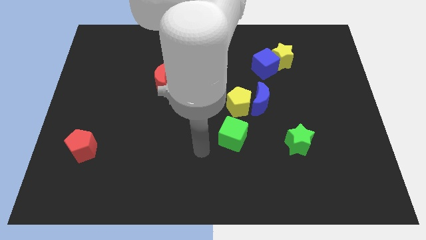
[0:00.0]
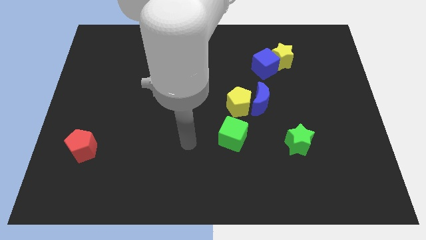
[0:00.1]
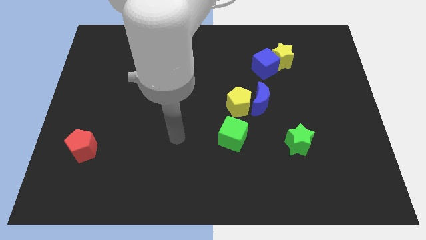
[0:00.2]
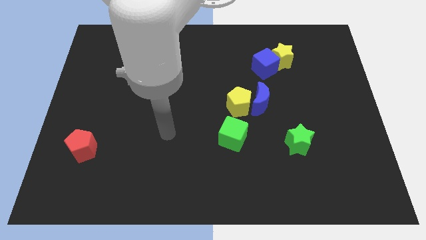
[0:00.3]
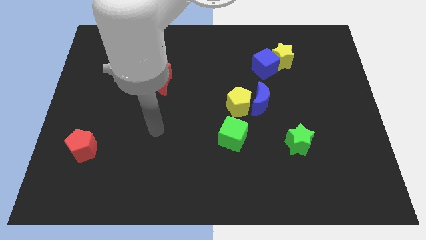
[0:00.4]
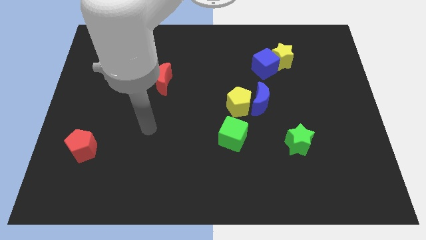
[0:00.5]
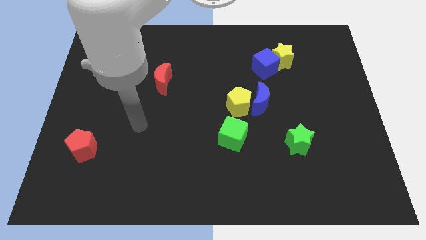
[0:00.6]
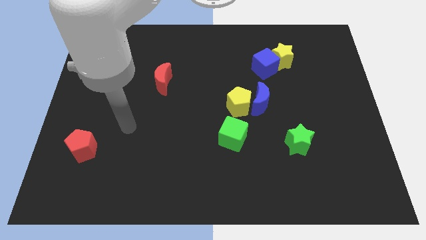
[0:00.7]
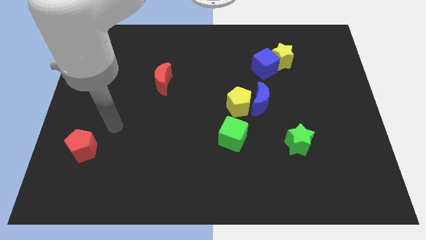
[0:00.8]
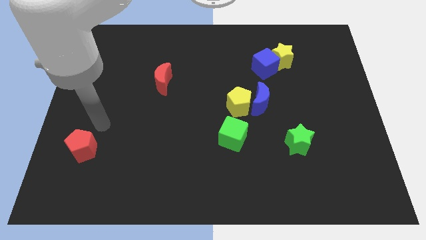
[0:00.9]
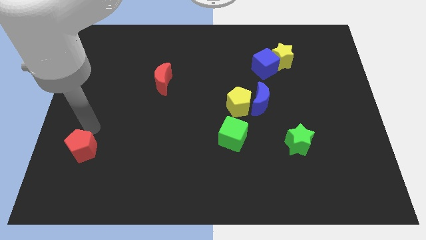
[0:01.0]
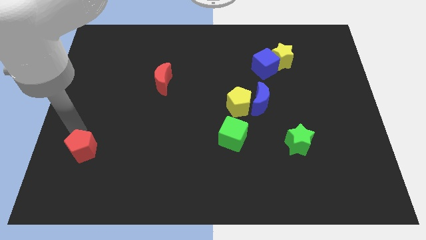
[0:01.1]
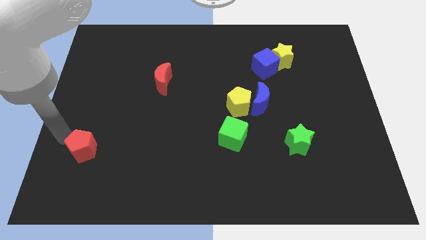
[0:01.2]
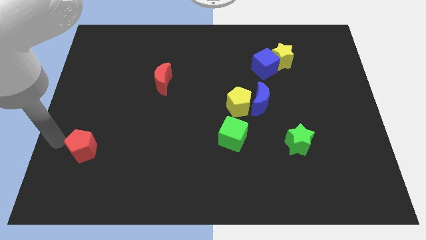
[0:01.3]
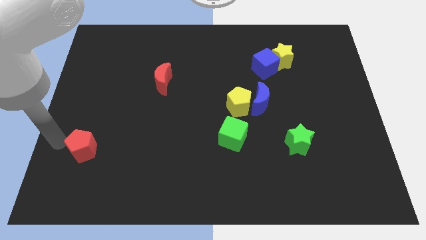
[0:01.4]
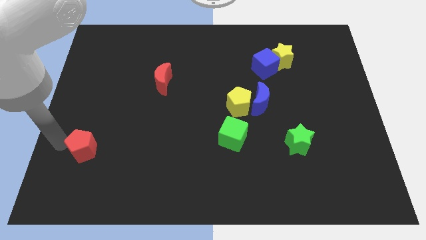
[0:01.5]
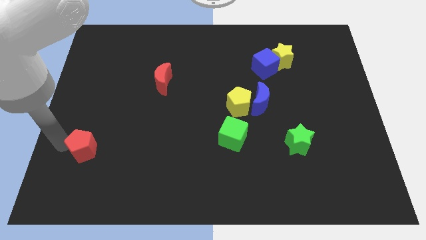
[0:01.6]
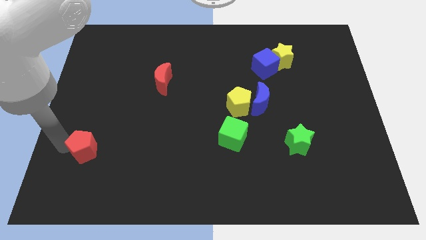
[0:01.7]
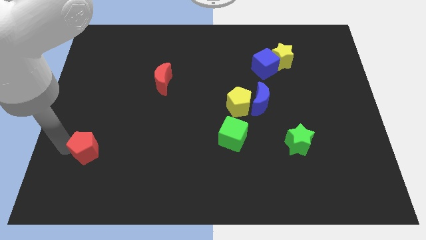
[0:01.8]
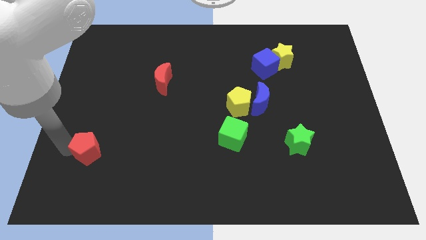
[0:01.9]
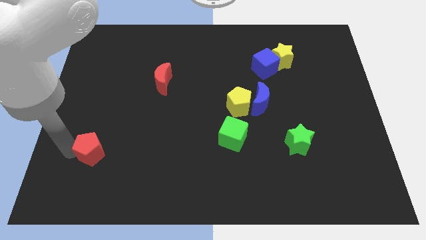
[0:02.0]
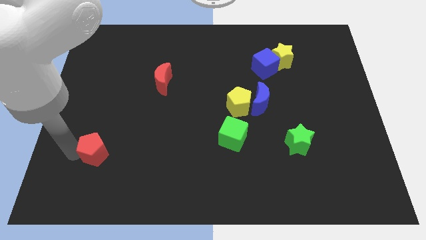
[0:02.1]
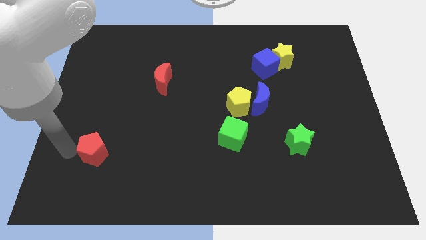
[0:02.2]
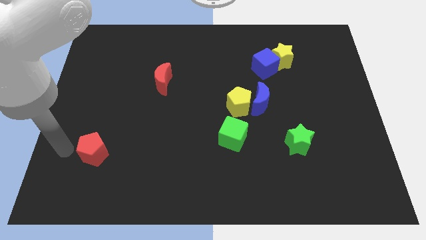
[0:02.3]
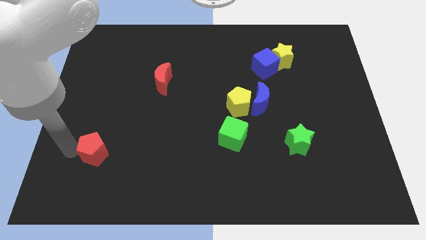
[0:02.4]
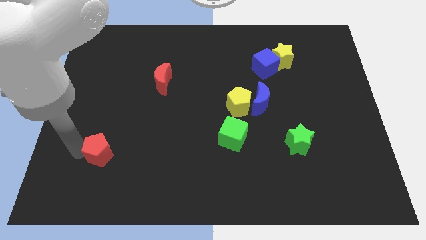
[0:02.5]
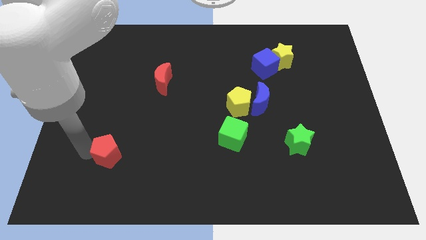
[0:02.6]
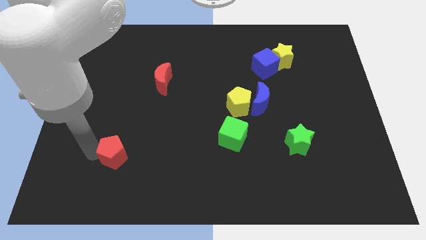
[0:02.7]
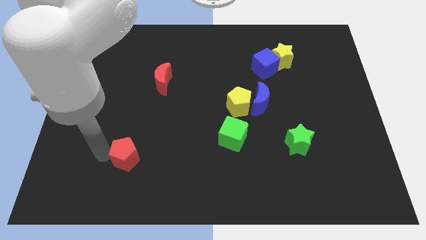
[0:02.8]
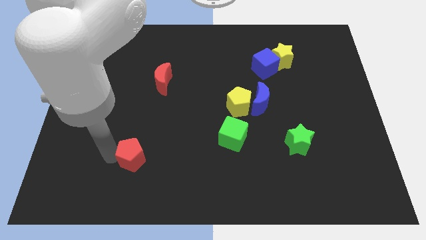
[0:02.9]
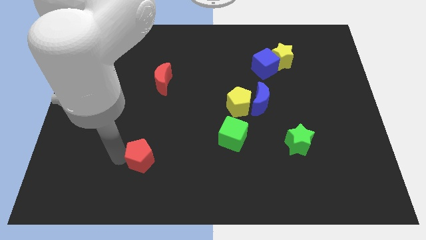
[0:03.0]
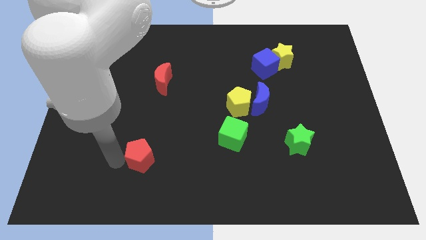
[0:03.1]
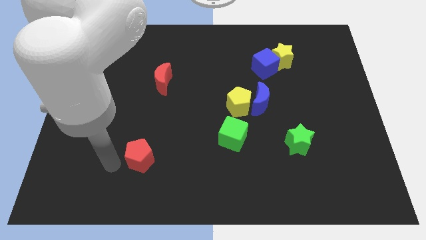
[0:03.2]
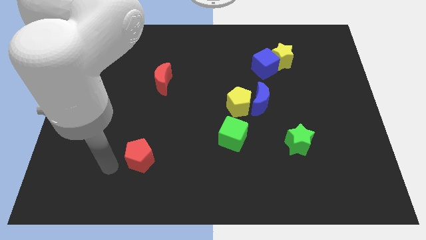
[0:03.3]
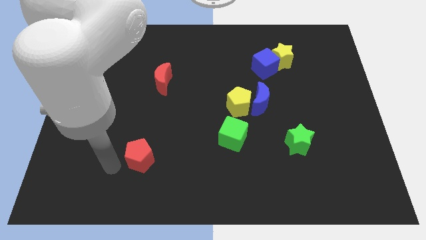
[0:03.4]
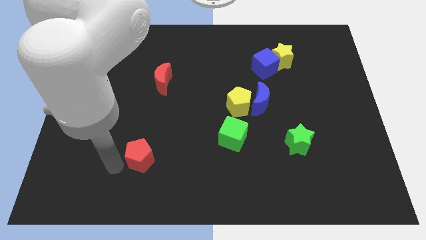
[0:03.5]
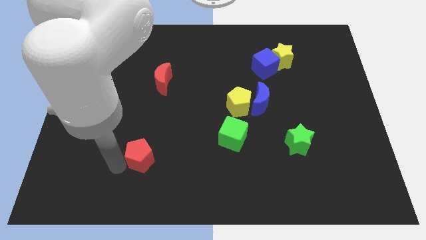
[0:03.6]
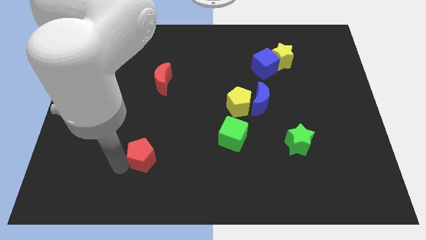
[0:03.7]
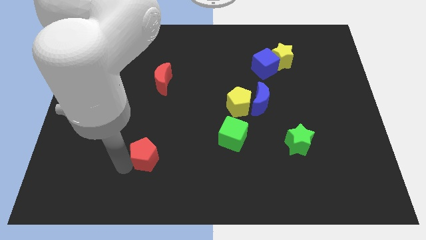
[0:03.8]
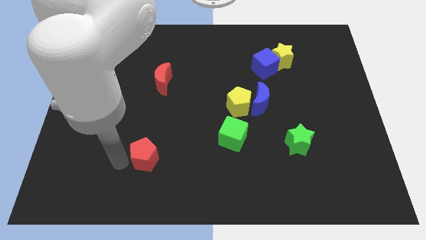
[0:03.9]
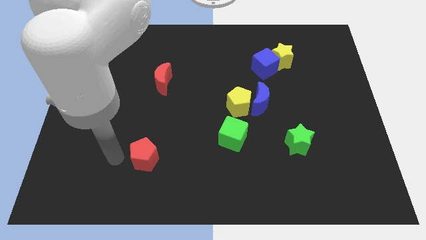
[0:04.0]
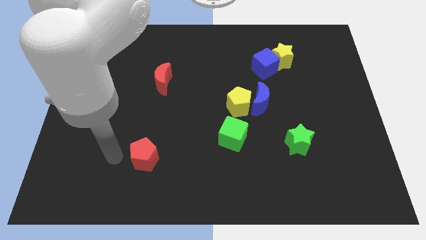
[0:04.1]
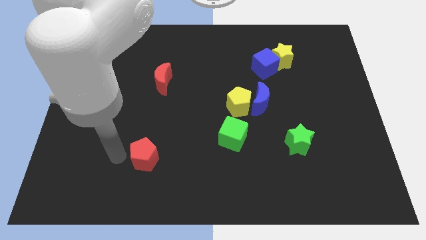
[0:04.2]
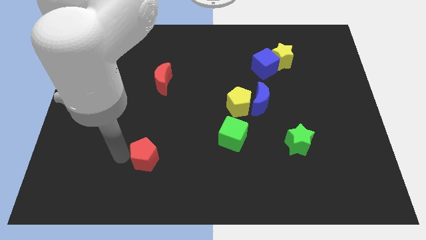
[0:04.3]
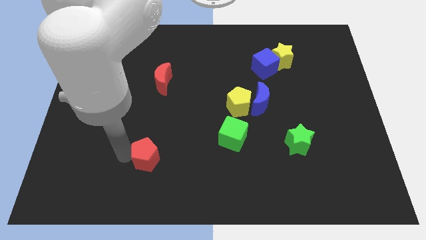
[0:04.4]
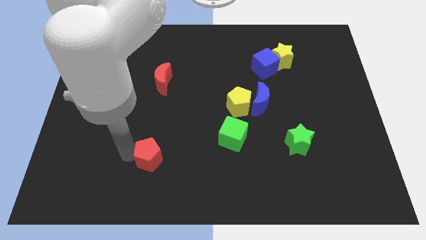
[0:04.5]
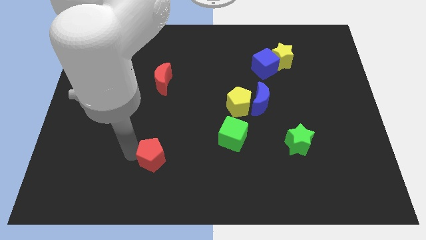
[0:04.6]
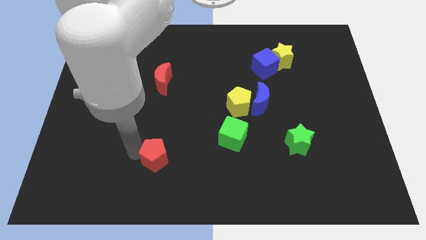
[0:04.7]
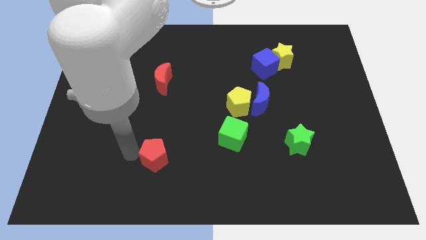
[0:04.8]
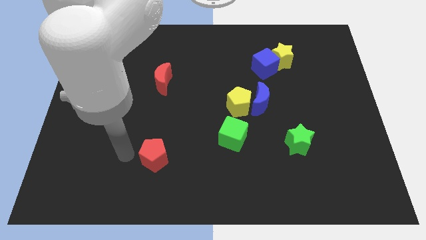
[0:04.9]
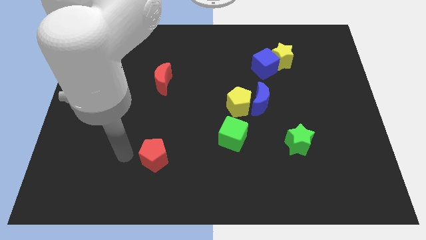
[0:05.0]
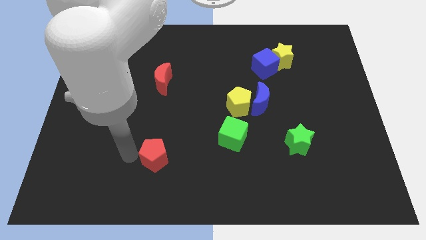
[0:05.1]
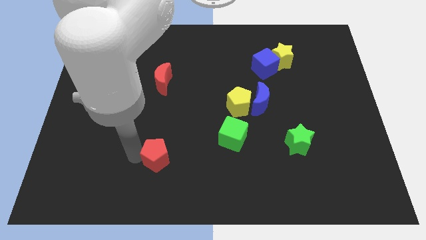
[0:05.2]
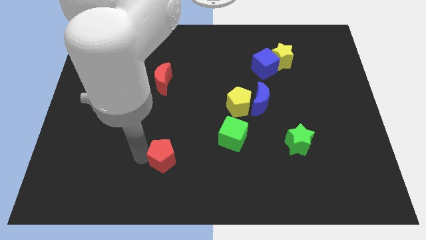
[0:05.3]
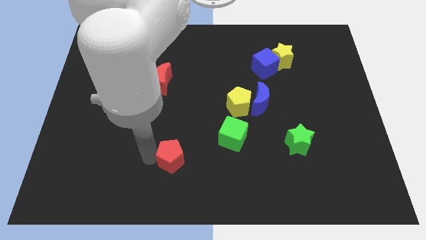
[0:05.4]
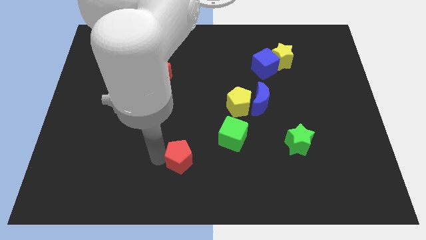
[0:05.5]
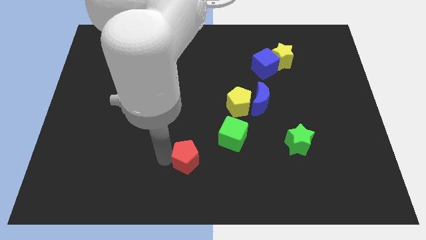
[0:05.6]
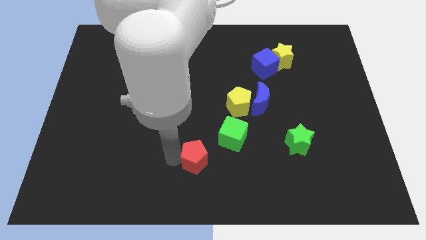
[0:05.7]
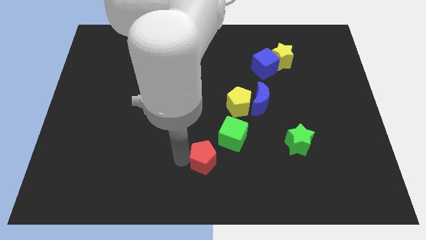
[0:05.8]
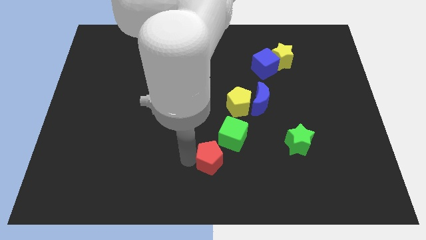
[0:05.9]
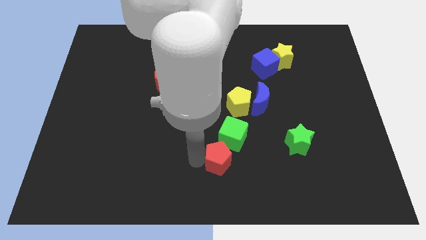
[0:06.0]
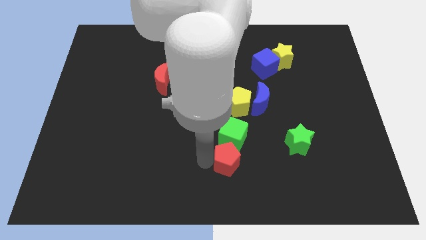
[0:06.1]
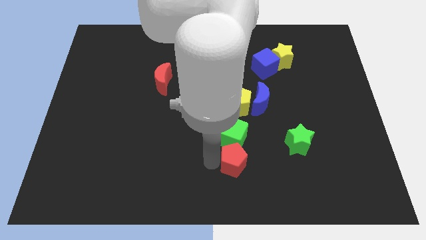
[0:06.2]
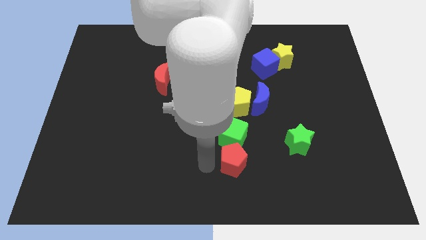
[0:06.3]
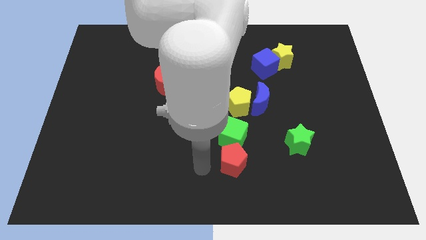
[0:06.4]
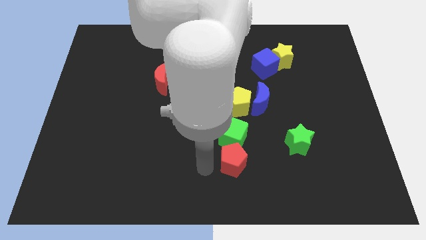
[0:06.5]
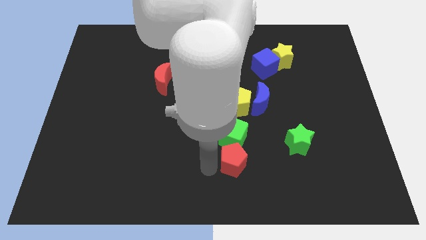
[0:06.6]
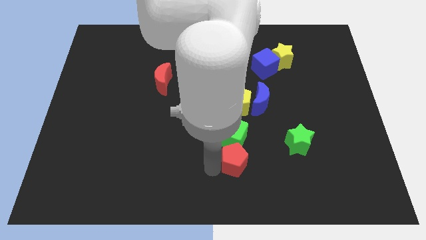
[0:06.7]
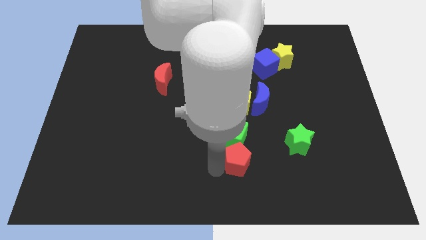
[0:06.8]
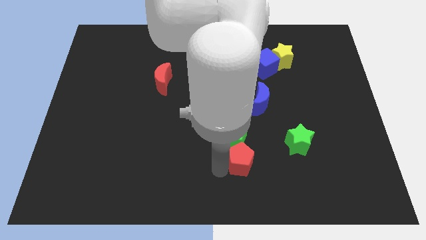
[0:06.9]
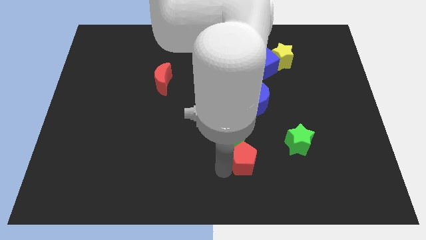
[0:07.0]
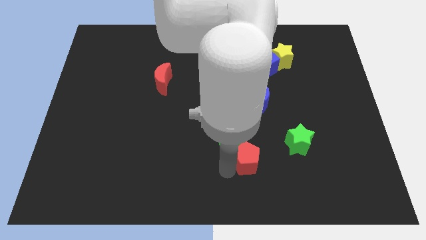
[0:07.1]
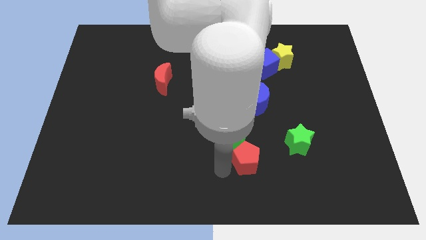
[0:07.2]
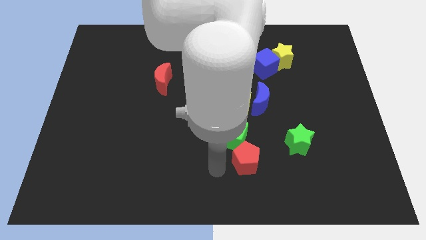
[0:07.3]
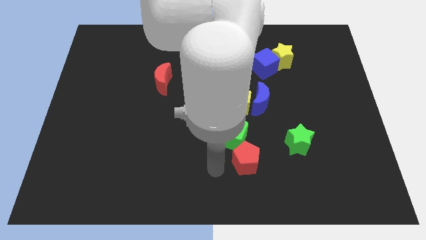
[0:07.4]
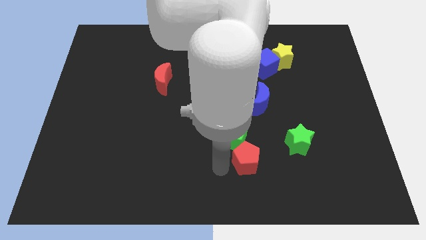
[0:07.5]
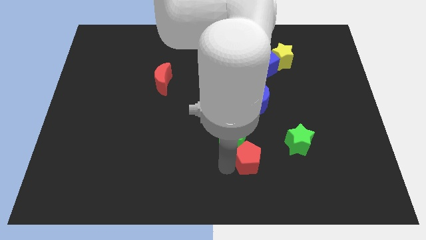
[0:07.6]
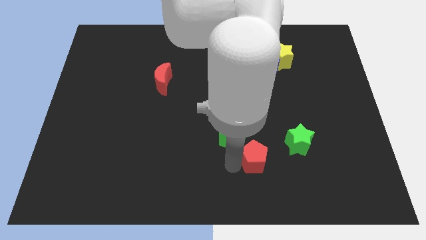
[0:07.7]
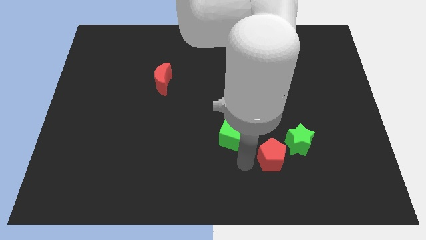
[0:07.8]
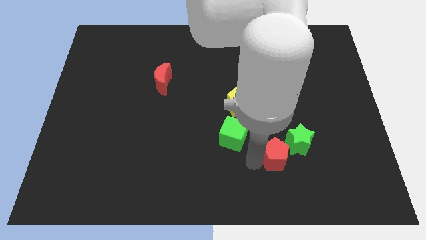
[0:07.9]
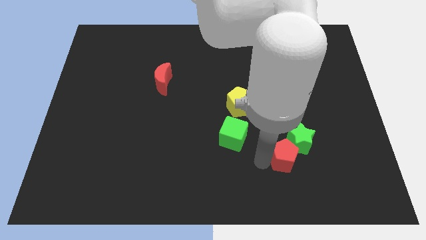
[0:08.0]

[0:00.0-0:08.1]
slide the red pentagon to the green star
